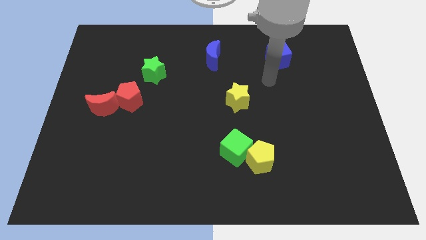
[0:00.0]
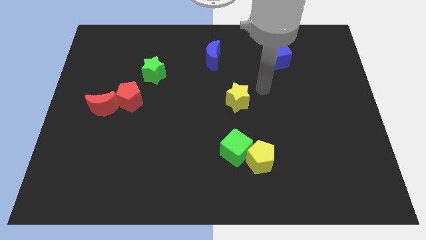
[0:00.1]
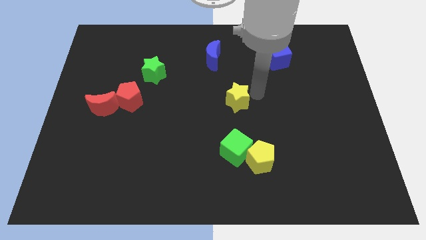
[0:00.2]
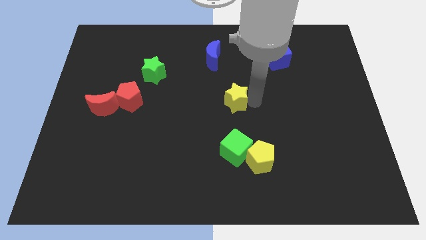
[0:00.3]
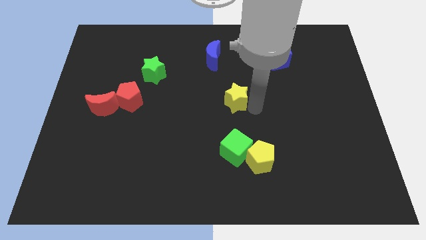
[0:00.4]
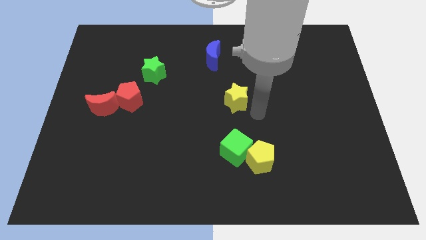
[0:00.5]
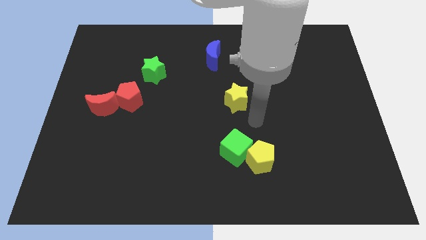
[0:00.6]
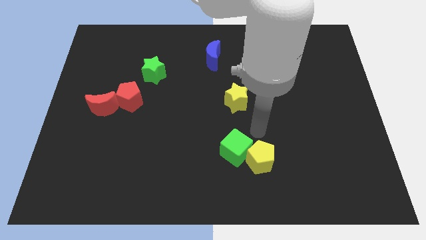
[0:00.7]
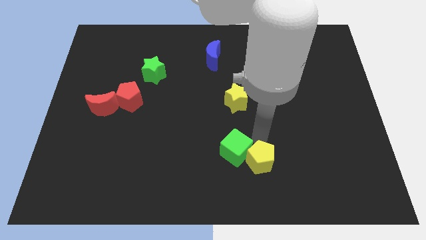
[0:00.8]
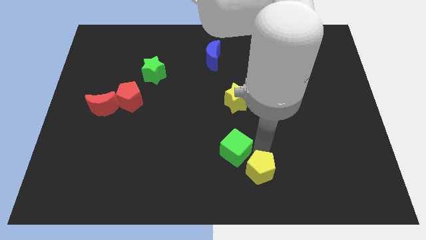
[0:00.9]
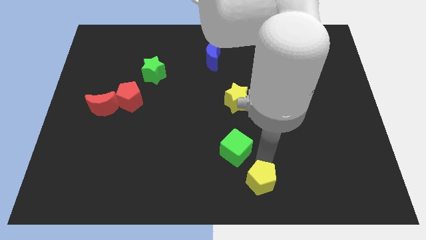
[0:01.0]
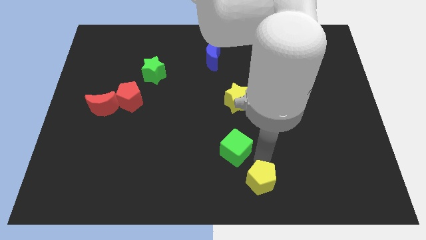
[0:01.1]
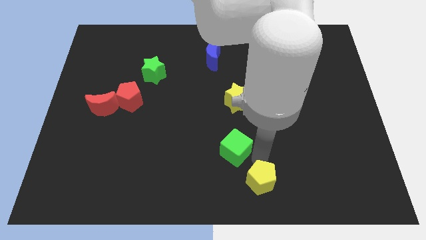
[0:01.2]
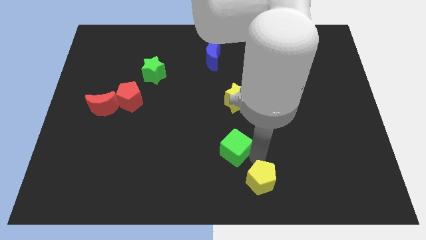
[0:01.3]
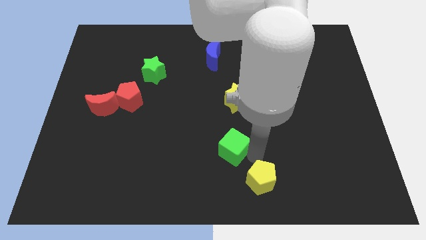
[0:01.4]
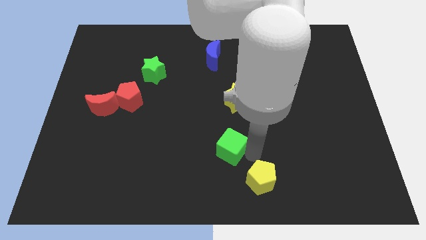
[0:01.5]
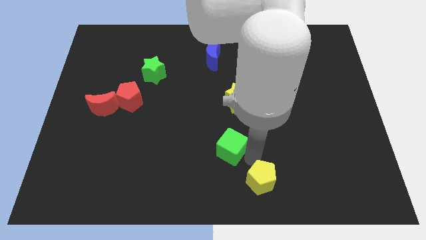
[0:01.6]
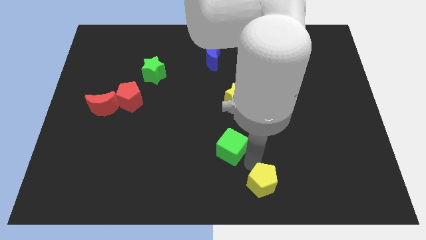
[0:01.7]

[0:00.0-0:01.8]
move the green cube away from the yellow pentagon

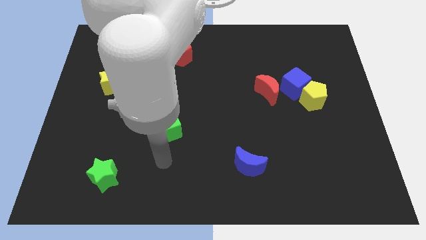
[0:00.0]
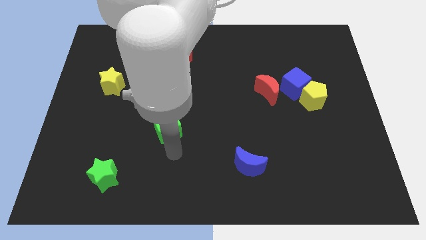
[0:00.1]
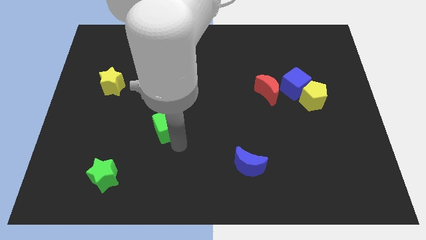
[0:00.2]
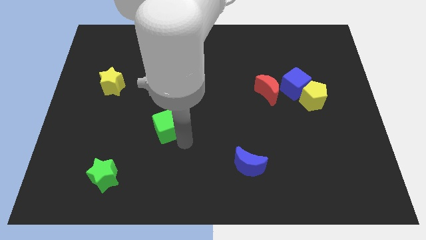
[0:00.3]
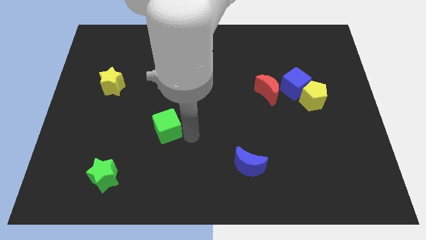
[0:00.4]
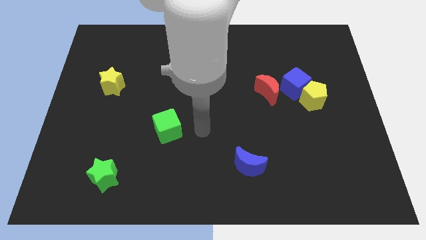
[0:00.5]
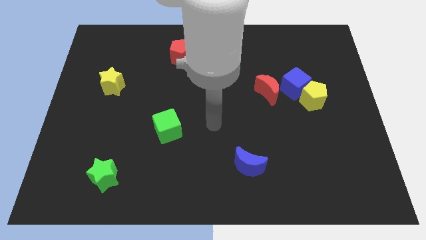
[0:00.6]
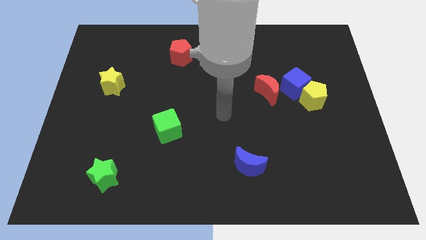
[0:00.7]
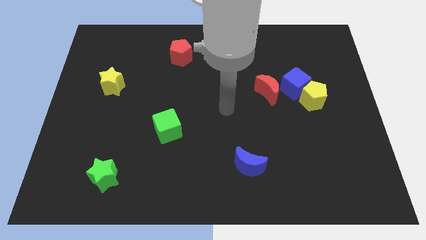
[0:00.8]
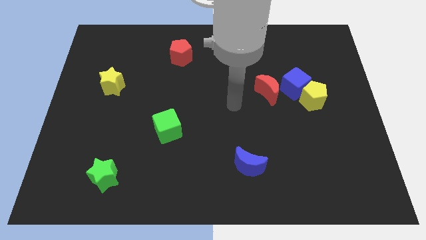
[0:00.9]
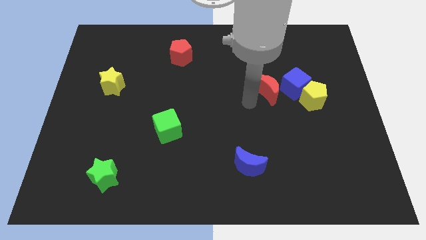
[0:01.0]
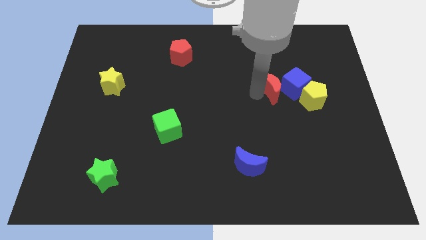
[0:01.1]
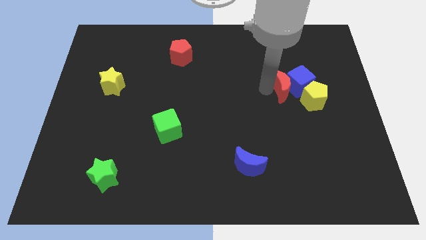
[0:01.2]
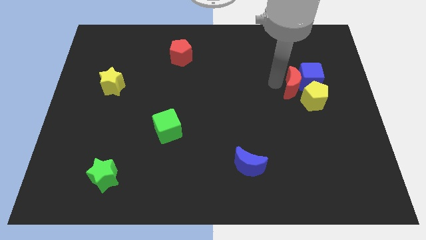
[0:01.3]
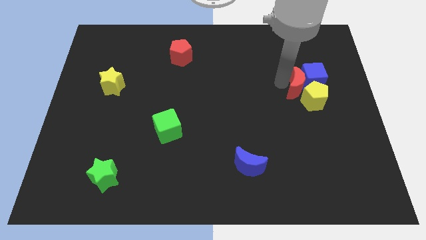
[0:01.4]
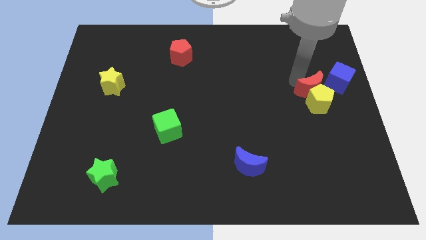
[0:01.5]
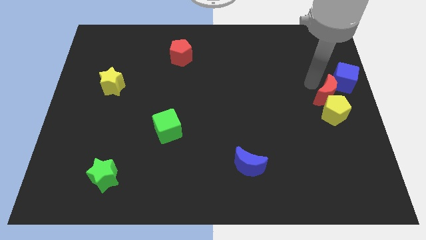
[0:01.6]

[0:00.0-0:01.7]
pull the yellow pentagon apart from the blue cube

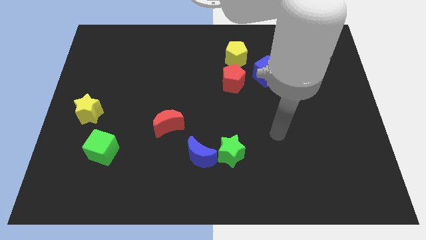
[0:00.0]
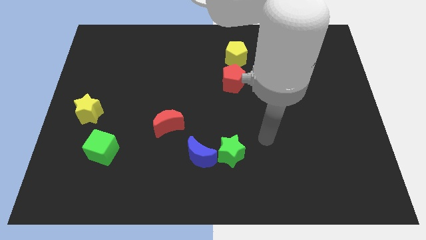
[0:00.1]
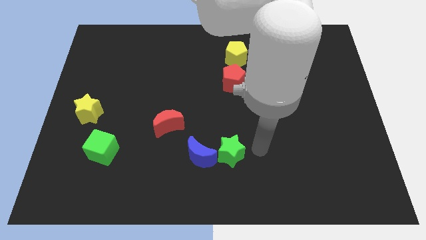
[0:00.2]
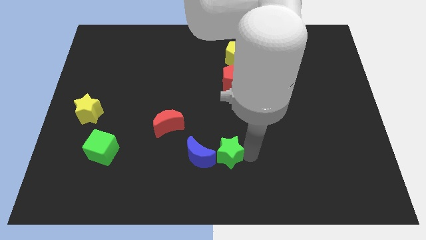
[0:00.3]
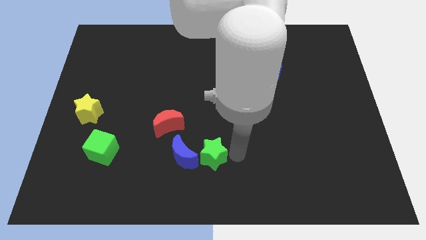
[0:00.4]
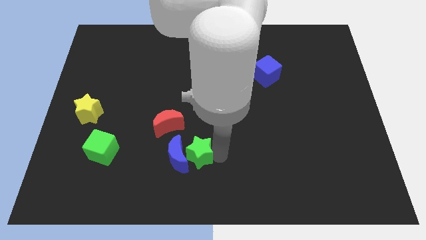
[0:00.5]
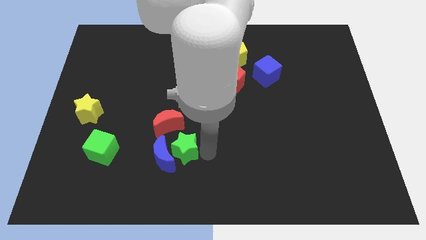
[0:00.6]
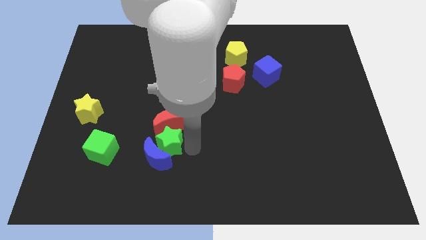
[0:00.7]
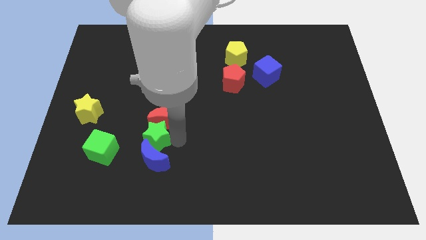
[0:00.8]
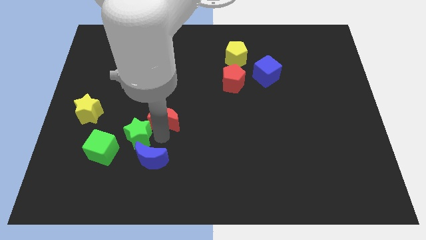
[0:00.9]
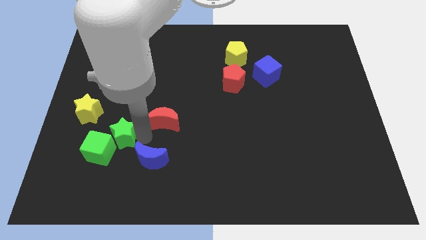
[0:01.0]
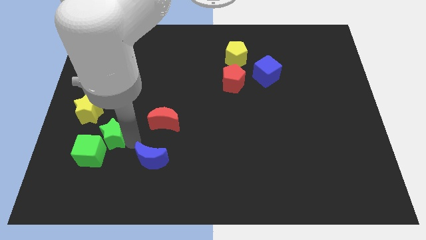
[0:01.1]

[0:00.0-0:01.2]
pull the blue moon apart from the green star

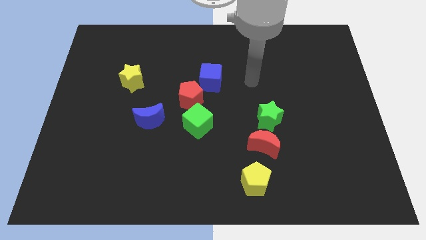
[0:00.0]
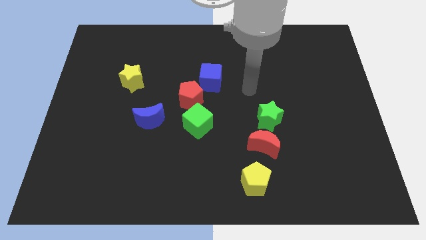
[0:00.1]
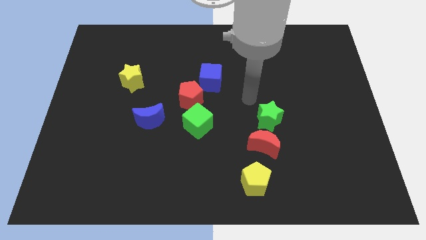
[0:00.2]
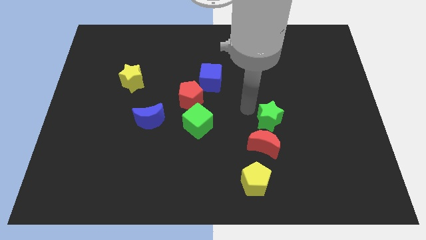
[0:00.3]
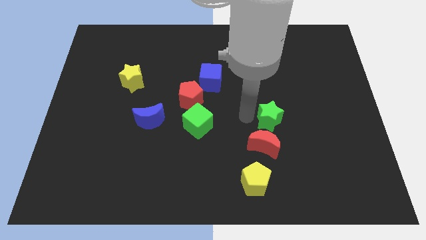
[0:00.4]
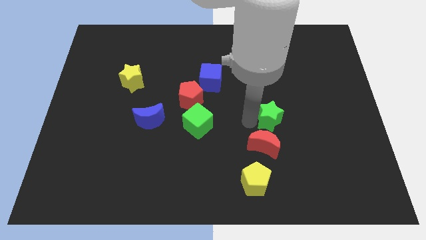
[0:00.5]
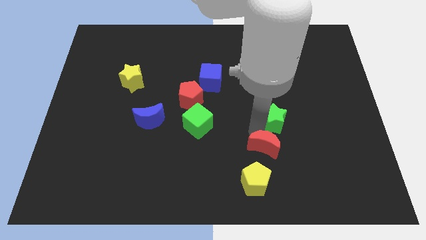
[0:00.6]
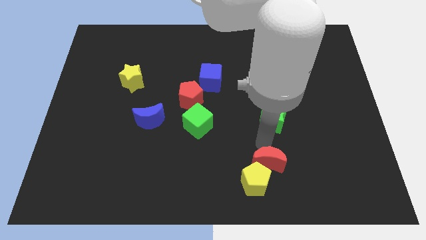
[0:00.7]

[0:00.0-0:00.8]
pull the green star apart from the red moon

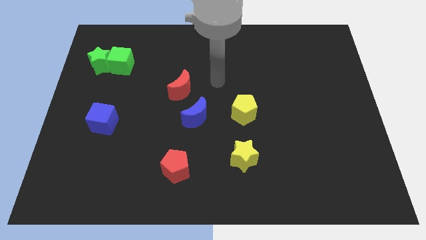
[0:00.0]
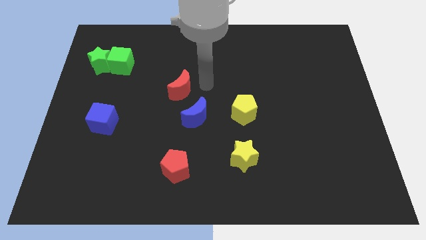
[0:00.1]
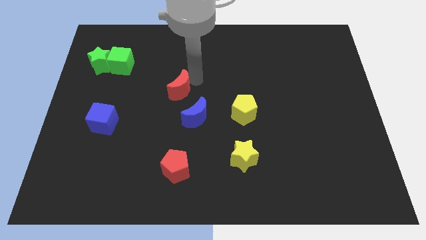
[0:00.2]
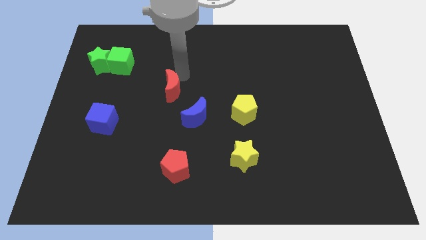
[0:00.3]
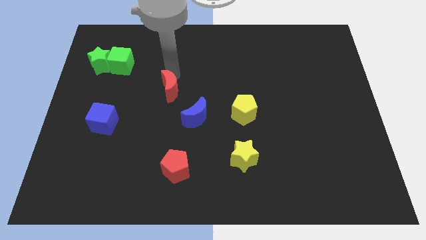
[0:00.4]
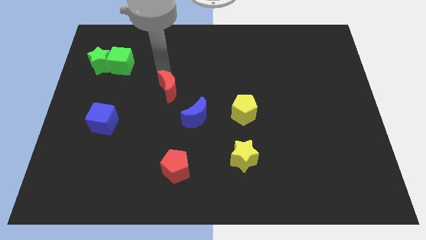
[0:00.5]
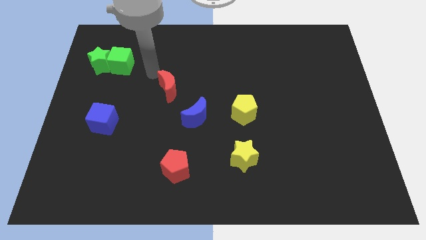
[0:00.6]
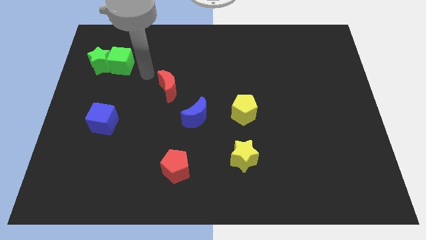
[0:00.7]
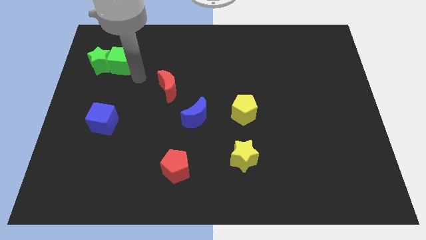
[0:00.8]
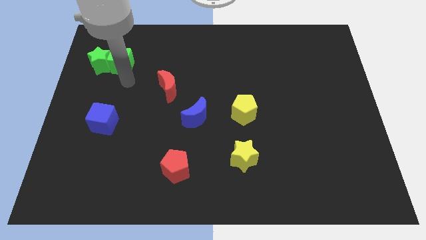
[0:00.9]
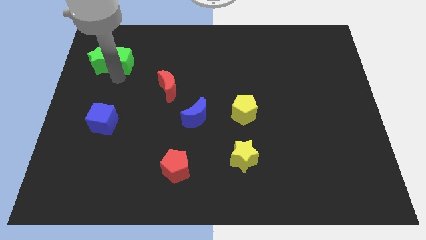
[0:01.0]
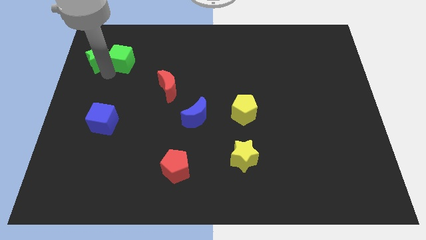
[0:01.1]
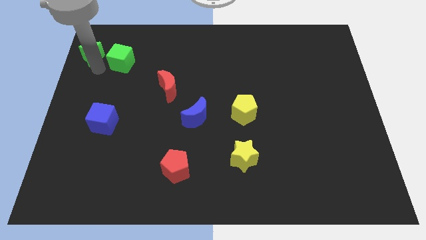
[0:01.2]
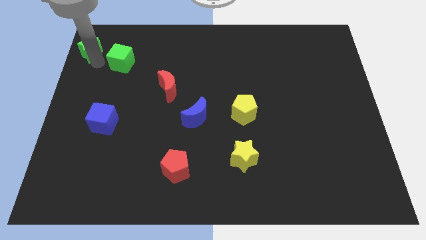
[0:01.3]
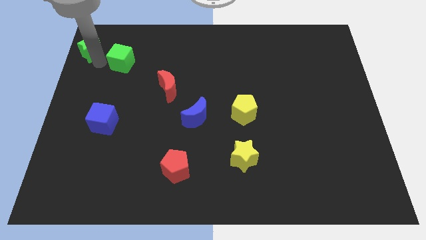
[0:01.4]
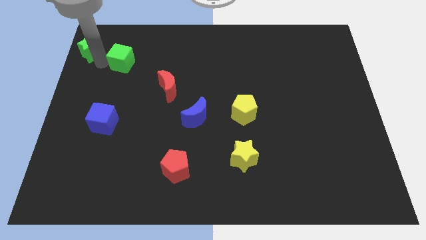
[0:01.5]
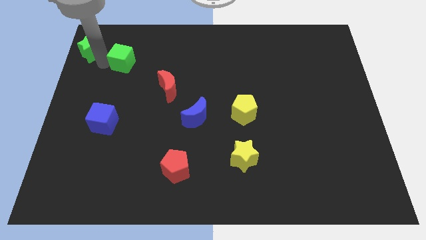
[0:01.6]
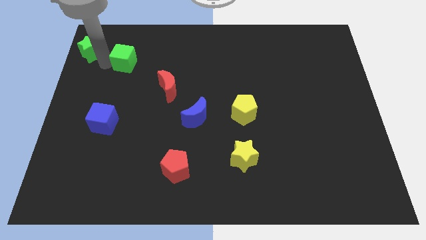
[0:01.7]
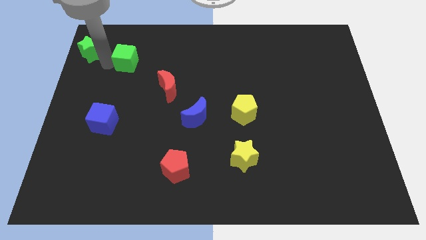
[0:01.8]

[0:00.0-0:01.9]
move the green cube away from the green star

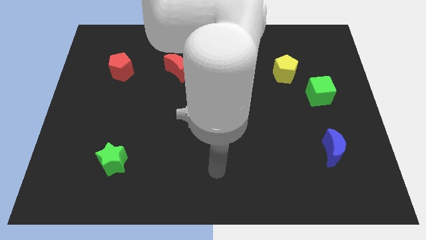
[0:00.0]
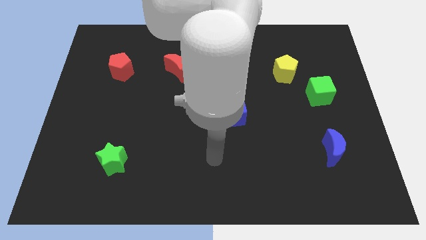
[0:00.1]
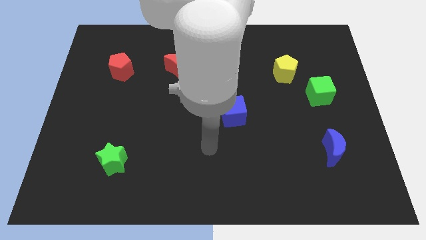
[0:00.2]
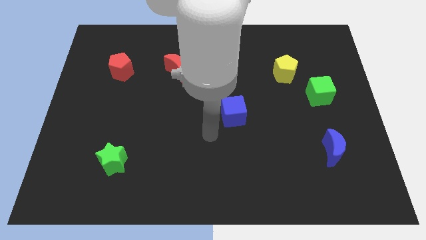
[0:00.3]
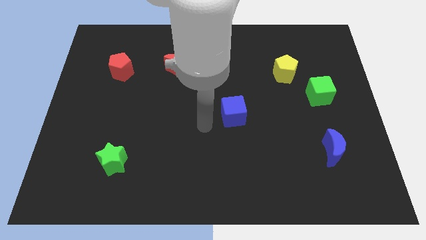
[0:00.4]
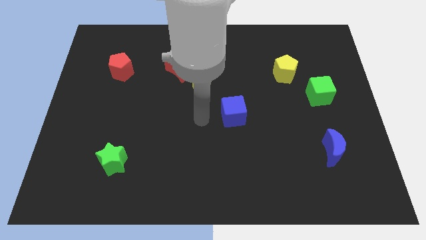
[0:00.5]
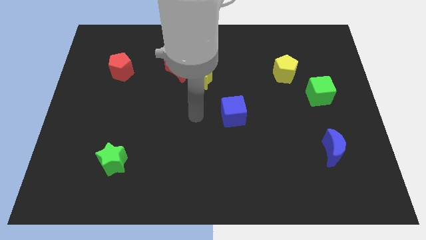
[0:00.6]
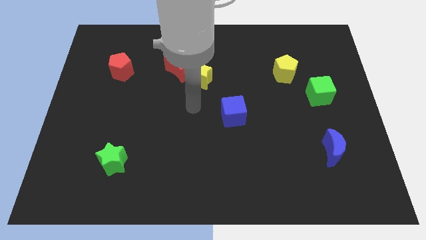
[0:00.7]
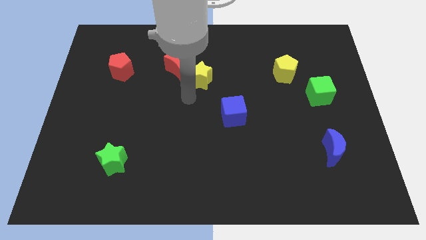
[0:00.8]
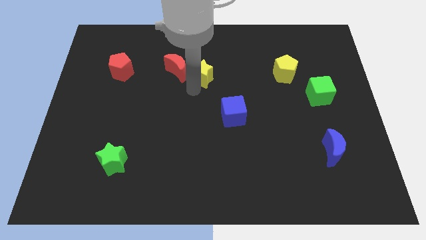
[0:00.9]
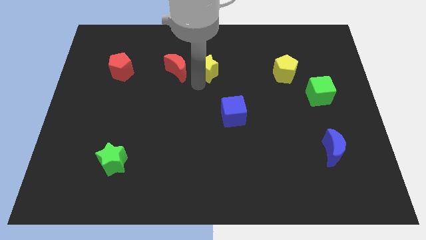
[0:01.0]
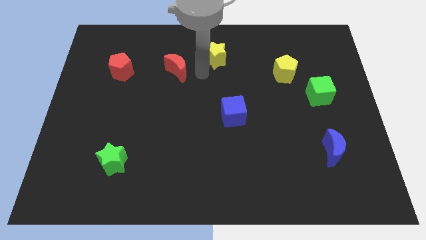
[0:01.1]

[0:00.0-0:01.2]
pull the red moon apart from the yellow star

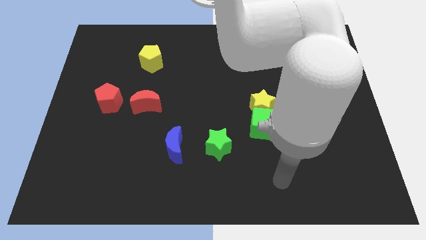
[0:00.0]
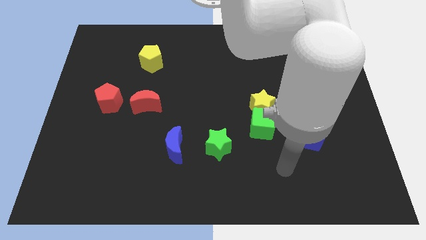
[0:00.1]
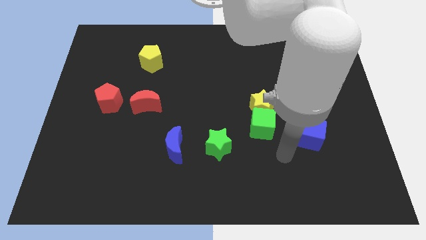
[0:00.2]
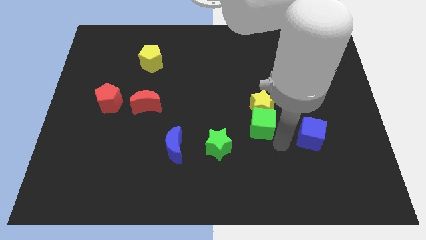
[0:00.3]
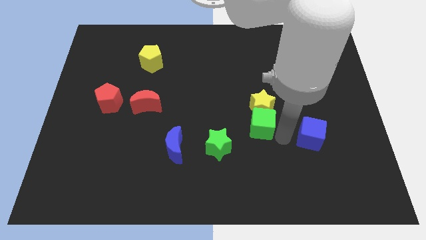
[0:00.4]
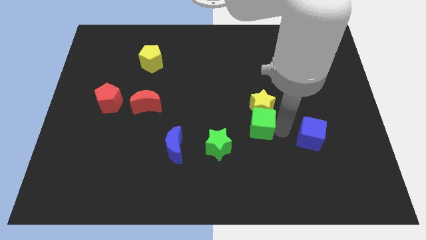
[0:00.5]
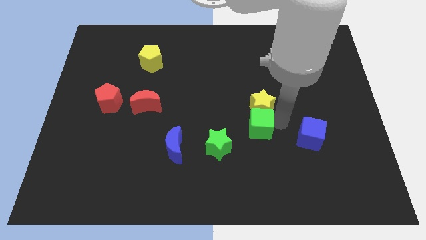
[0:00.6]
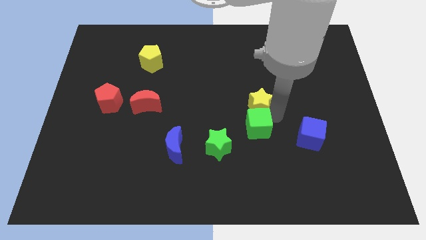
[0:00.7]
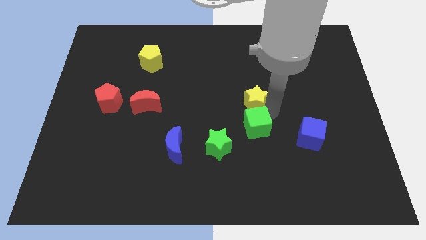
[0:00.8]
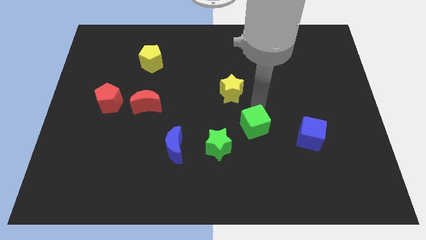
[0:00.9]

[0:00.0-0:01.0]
move the green cube away from the yellow star
